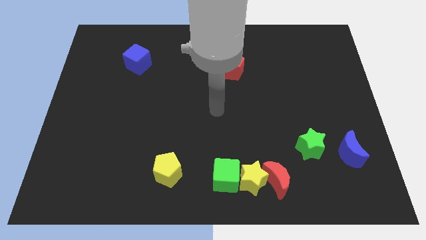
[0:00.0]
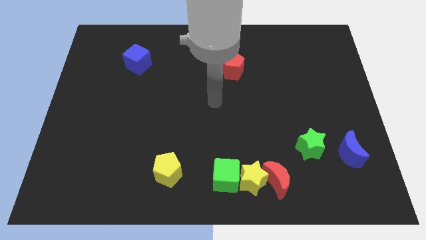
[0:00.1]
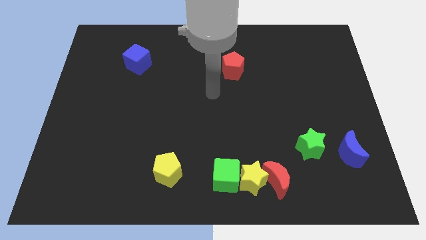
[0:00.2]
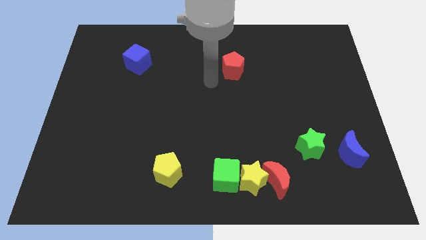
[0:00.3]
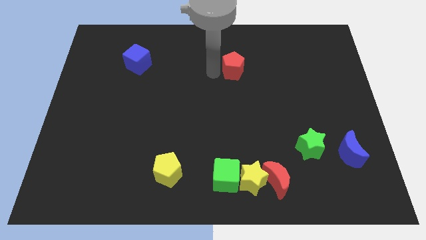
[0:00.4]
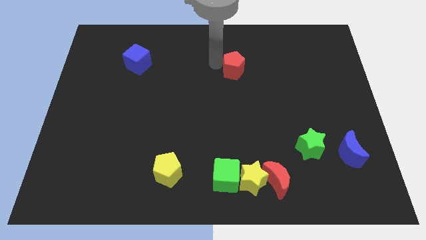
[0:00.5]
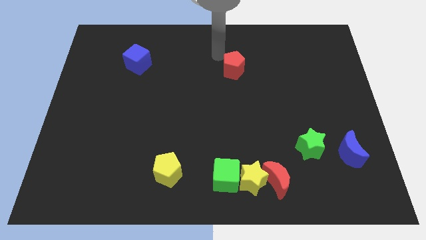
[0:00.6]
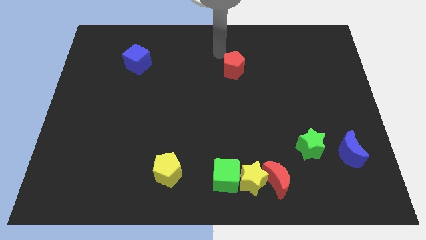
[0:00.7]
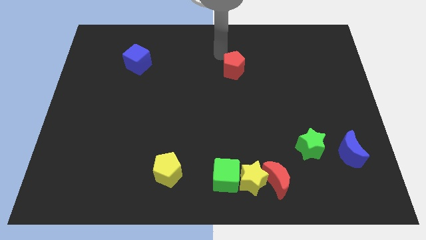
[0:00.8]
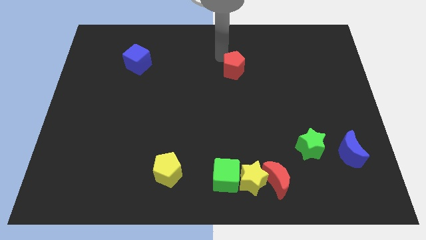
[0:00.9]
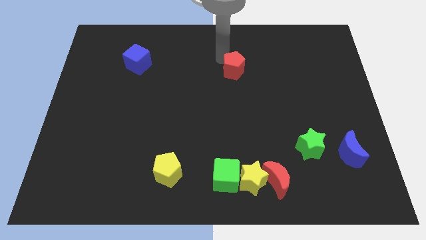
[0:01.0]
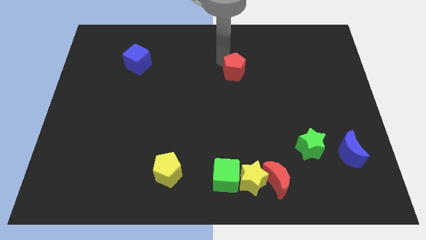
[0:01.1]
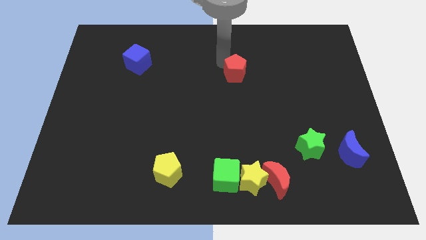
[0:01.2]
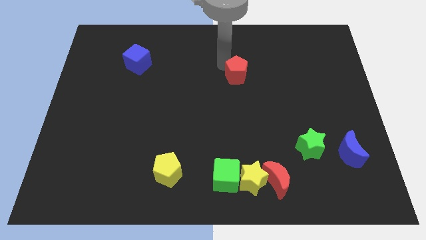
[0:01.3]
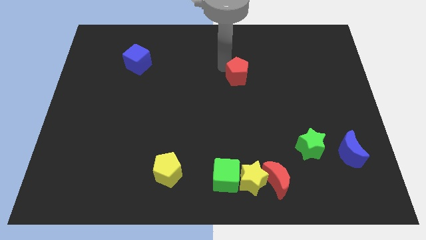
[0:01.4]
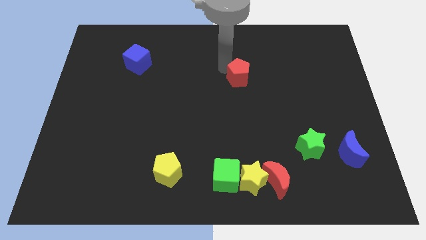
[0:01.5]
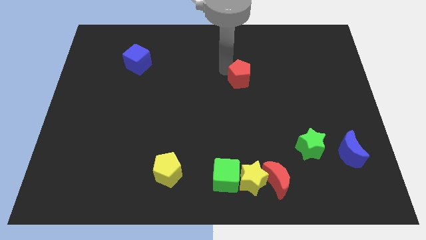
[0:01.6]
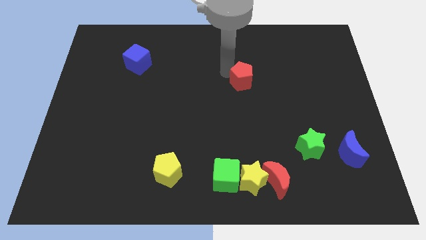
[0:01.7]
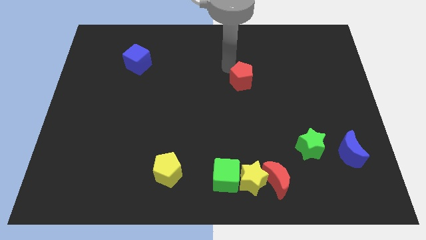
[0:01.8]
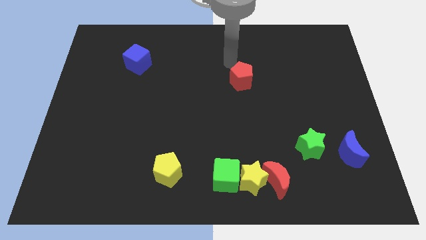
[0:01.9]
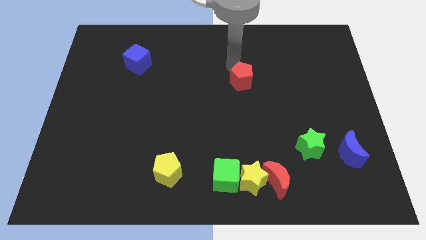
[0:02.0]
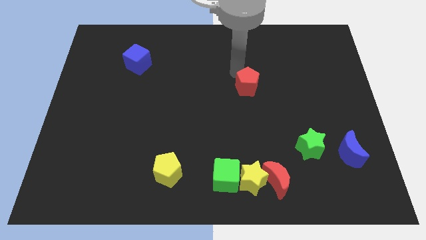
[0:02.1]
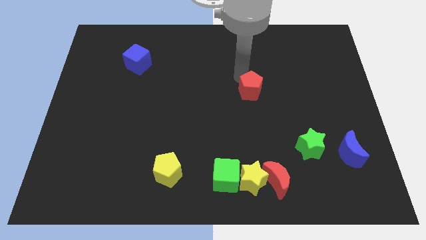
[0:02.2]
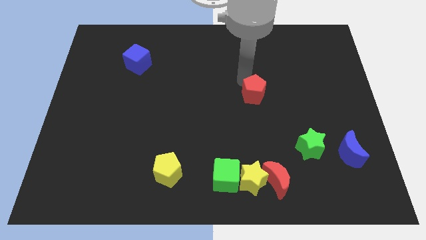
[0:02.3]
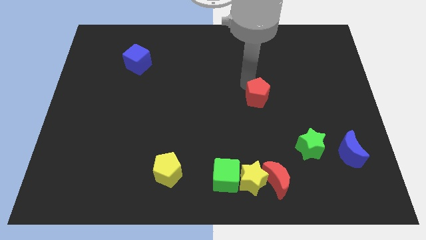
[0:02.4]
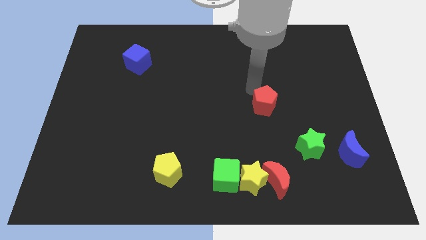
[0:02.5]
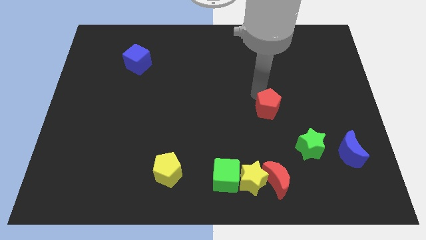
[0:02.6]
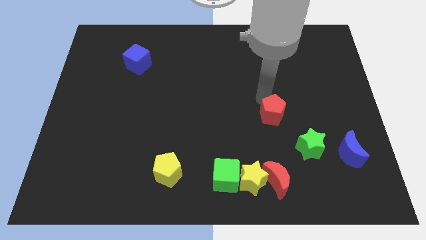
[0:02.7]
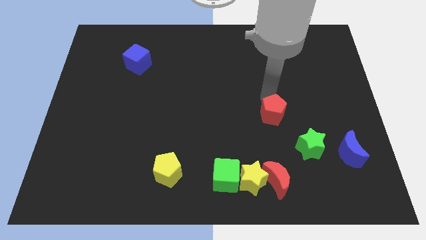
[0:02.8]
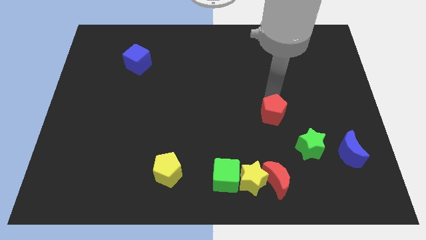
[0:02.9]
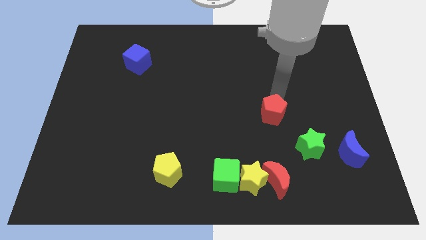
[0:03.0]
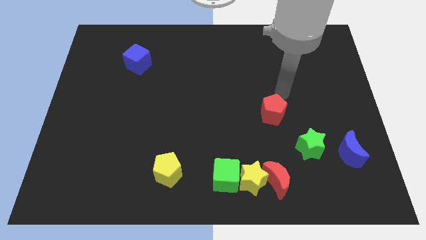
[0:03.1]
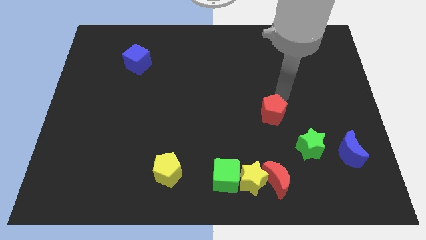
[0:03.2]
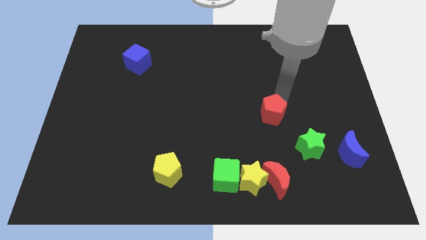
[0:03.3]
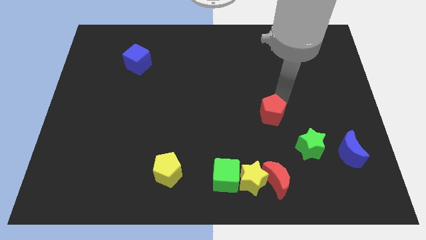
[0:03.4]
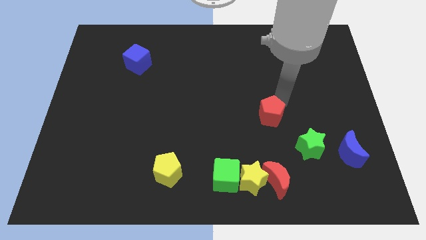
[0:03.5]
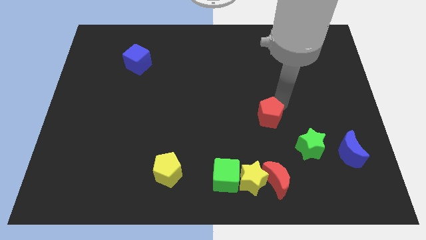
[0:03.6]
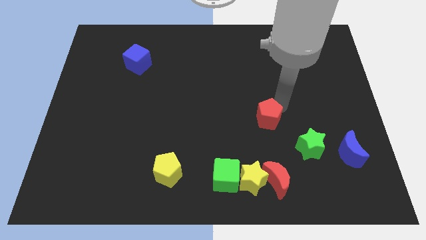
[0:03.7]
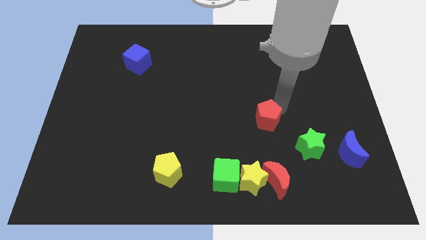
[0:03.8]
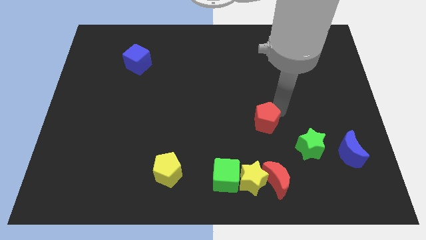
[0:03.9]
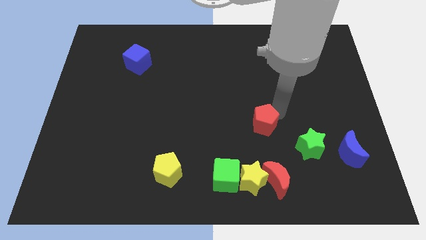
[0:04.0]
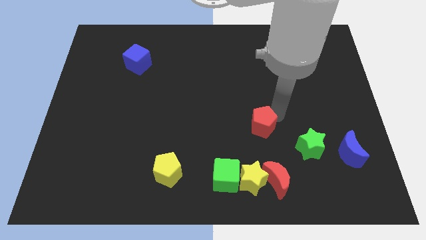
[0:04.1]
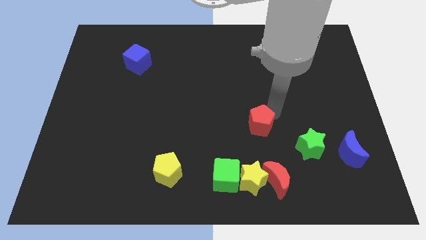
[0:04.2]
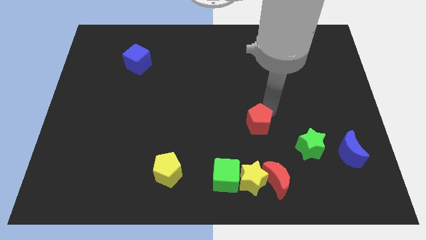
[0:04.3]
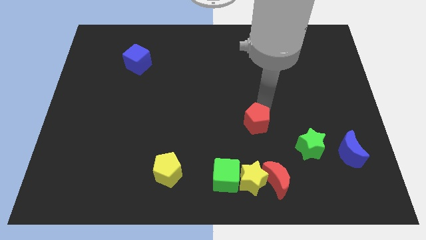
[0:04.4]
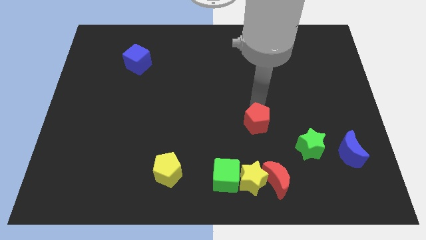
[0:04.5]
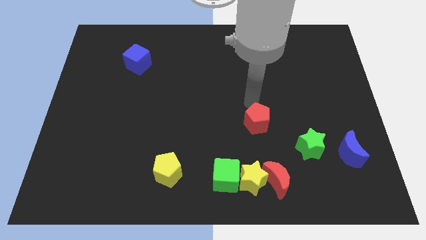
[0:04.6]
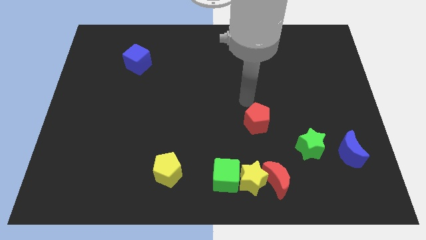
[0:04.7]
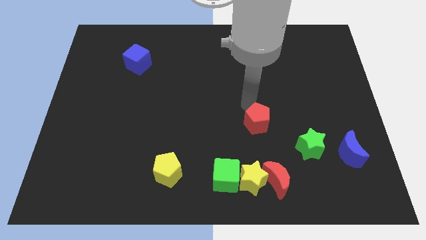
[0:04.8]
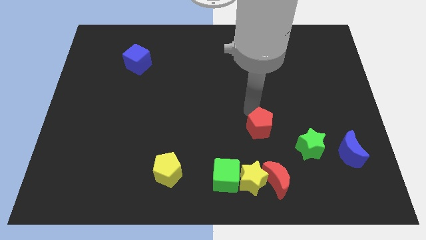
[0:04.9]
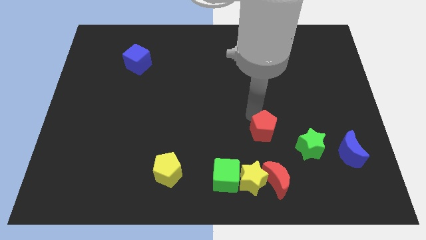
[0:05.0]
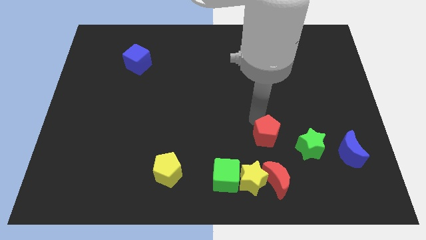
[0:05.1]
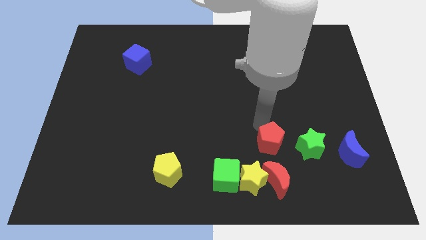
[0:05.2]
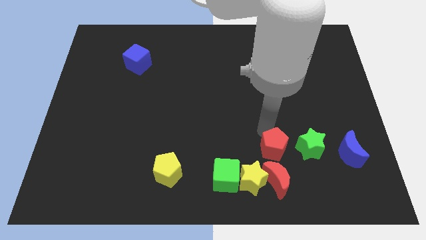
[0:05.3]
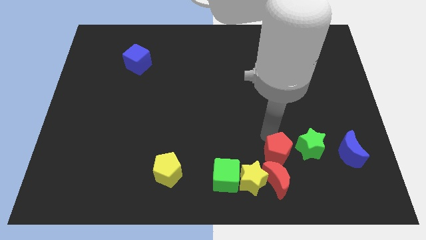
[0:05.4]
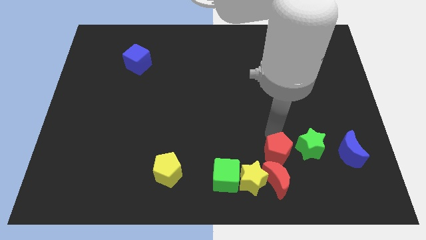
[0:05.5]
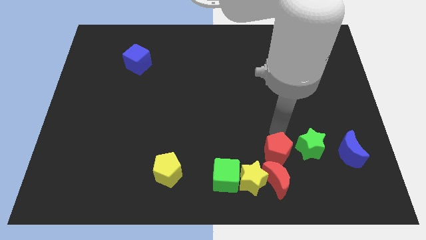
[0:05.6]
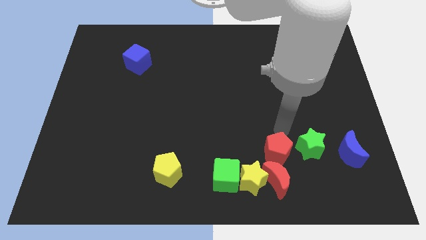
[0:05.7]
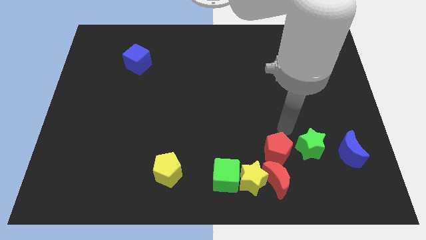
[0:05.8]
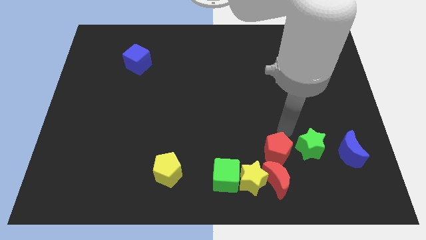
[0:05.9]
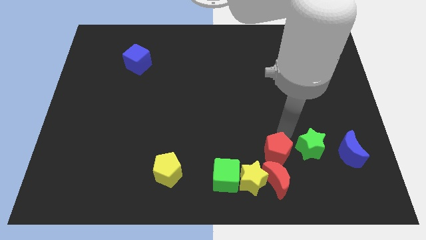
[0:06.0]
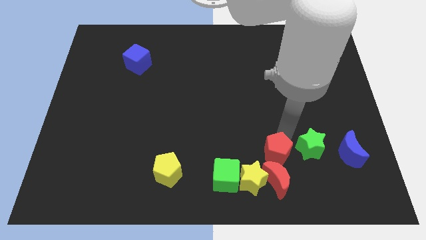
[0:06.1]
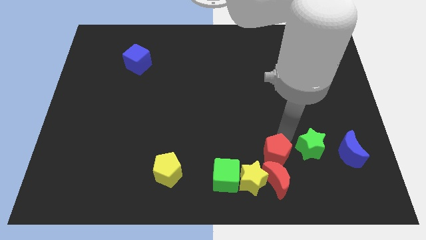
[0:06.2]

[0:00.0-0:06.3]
push the red pentagon next to the red moon

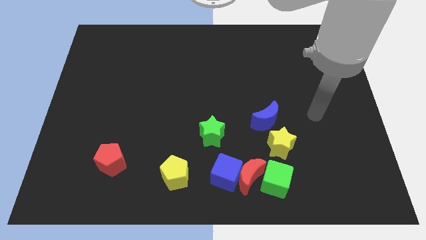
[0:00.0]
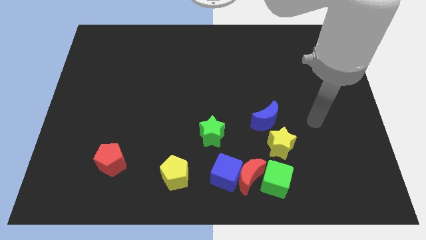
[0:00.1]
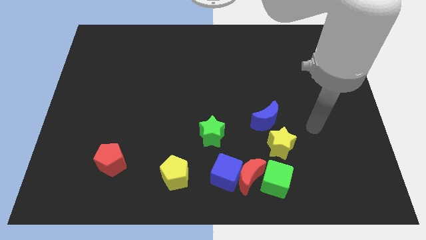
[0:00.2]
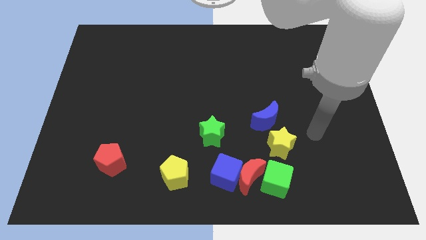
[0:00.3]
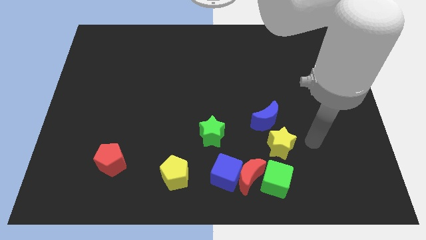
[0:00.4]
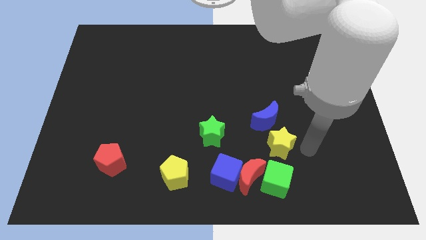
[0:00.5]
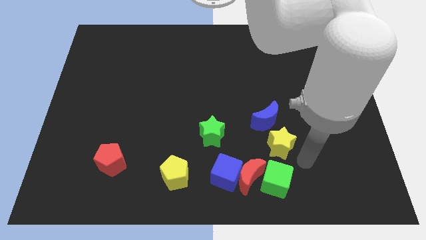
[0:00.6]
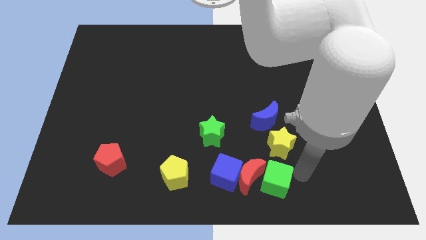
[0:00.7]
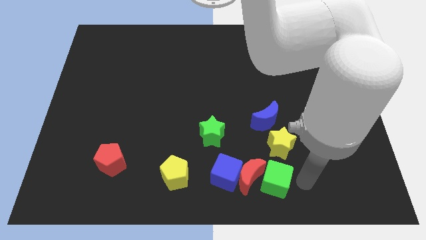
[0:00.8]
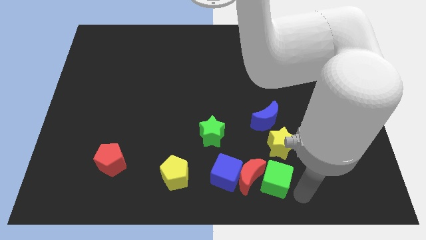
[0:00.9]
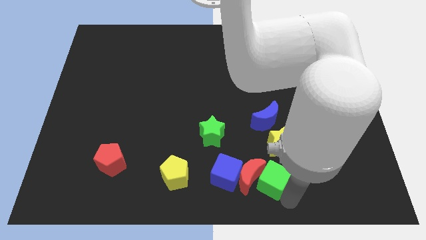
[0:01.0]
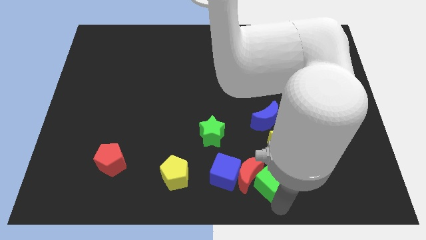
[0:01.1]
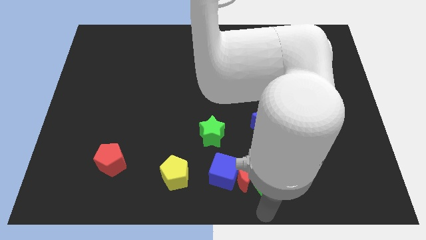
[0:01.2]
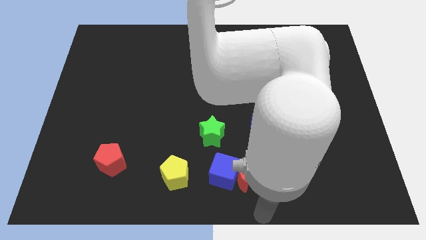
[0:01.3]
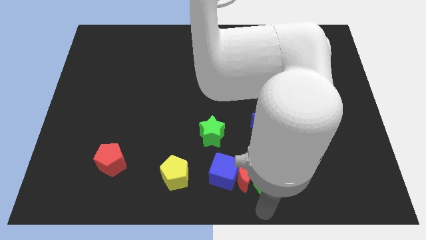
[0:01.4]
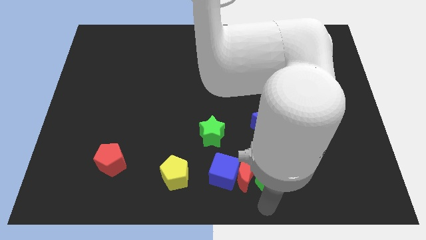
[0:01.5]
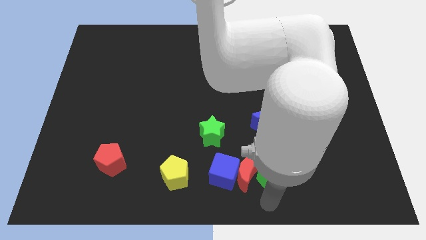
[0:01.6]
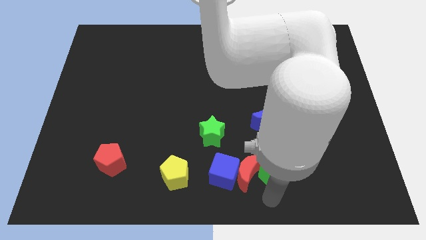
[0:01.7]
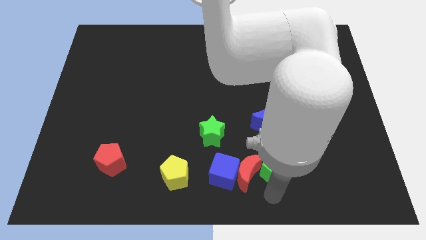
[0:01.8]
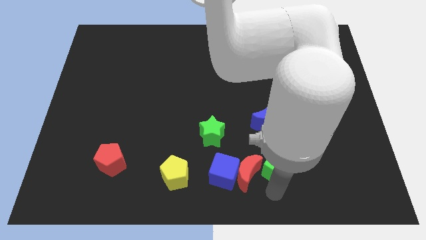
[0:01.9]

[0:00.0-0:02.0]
put the green cube towards the yellow star
